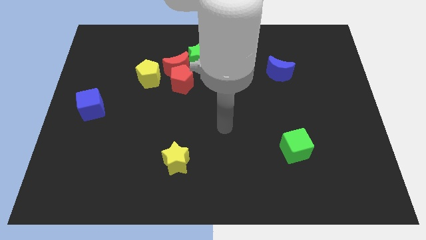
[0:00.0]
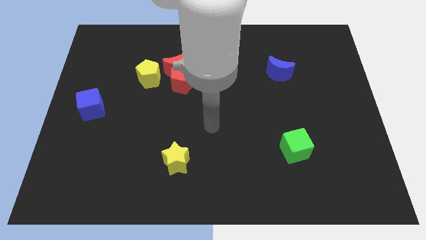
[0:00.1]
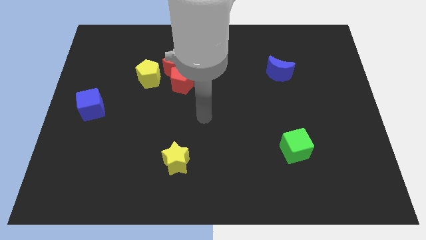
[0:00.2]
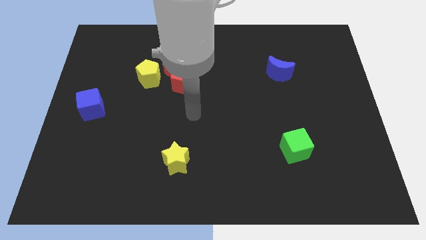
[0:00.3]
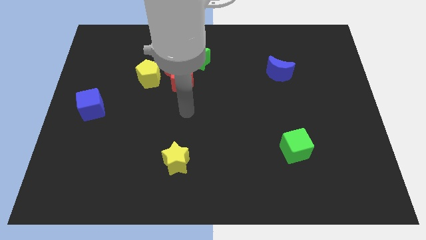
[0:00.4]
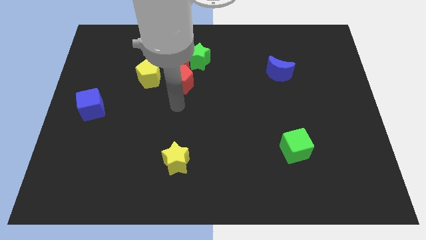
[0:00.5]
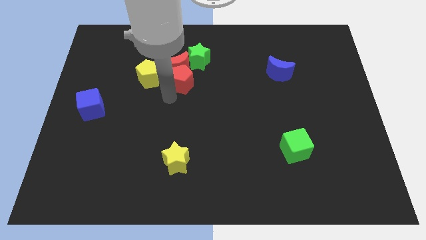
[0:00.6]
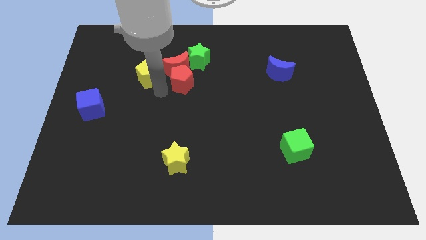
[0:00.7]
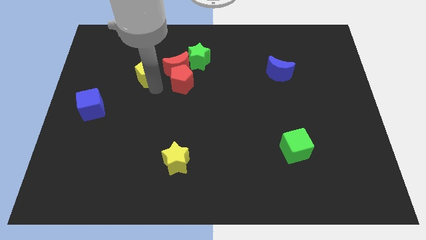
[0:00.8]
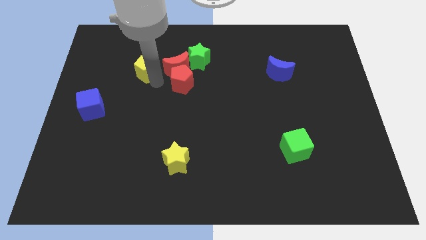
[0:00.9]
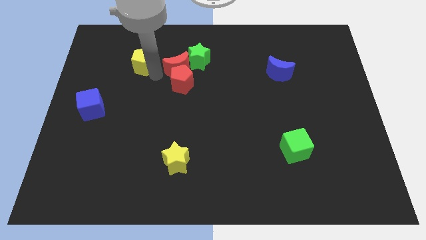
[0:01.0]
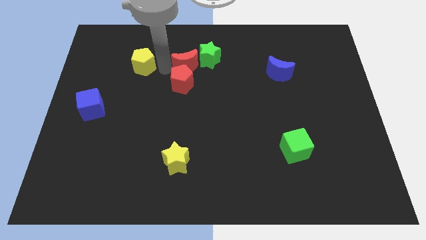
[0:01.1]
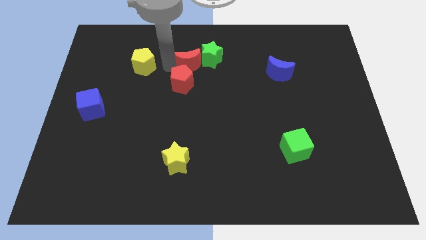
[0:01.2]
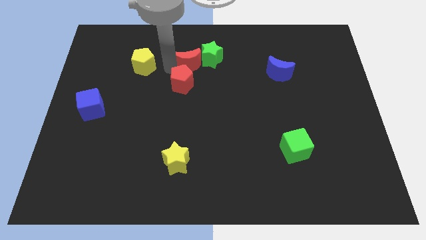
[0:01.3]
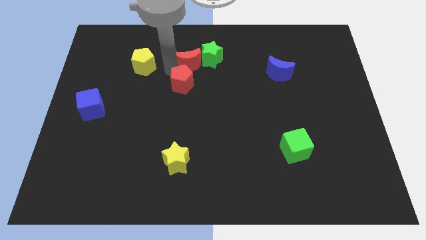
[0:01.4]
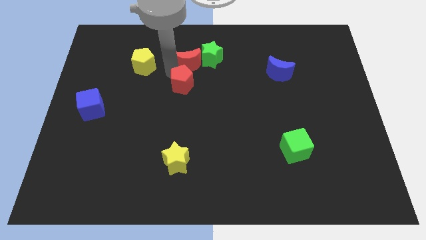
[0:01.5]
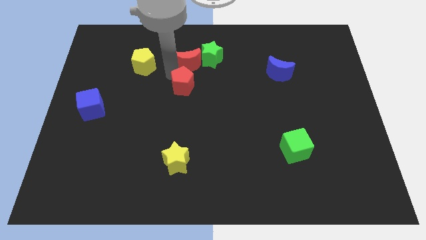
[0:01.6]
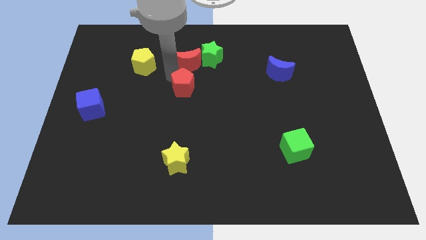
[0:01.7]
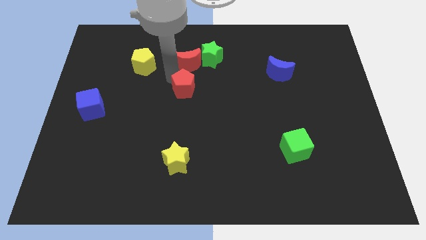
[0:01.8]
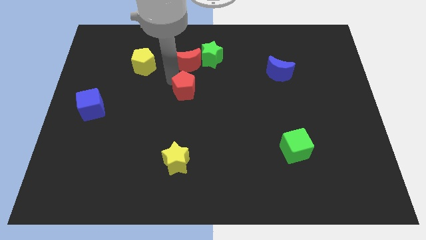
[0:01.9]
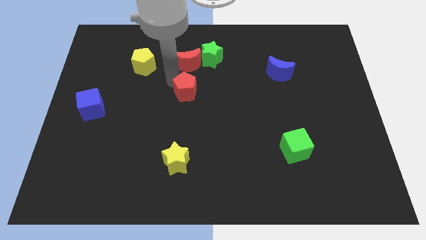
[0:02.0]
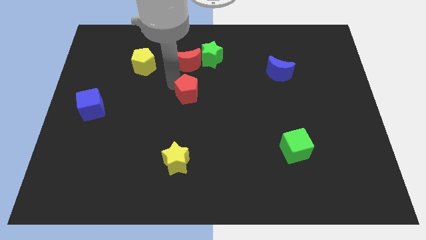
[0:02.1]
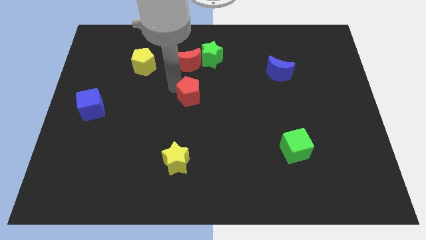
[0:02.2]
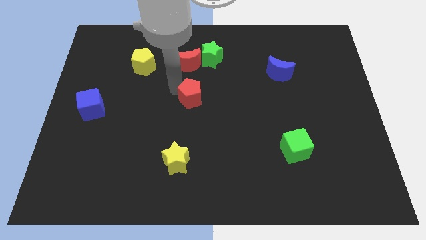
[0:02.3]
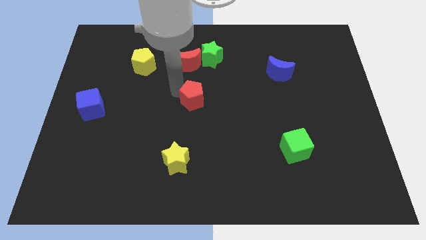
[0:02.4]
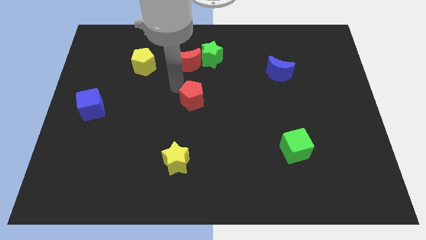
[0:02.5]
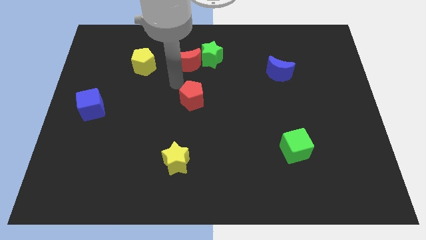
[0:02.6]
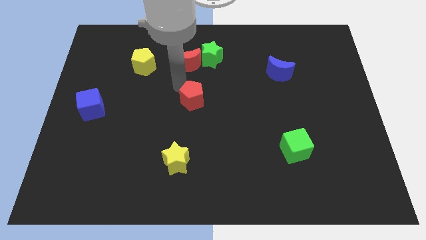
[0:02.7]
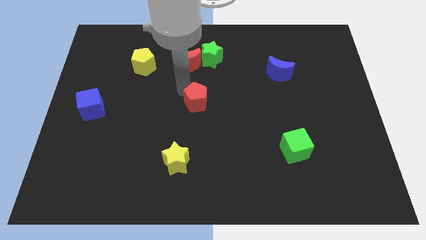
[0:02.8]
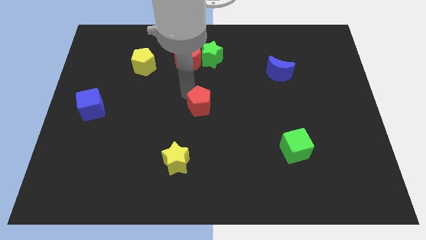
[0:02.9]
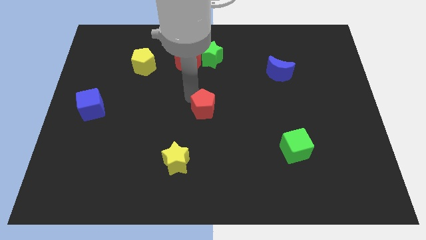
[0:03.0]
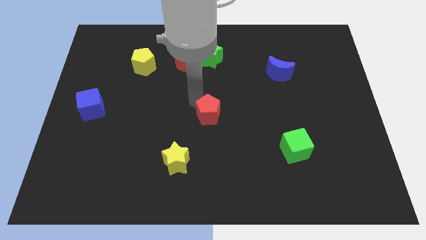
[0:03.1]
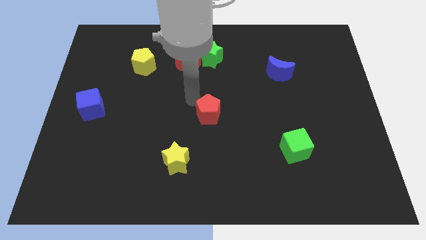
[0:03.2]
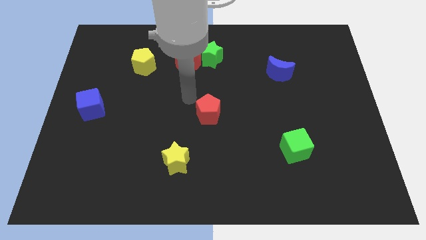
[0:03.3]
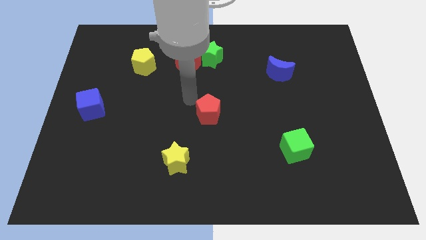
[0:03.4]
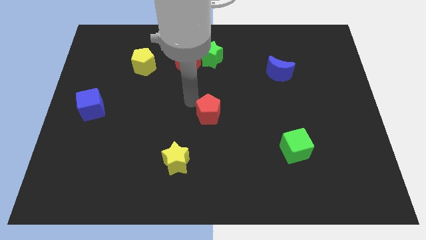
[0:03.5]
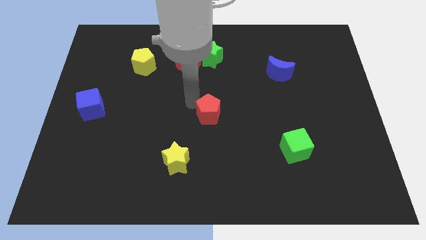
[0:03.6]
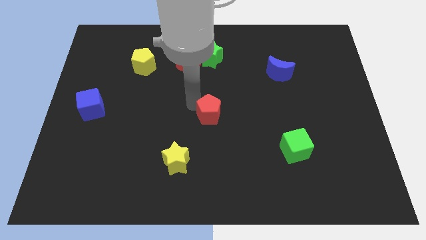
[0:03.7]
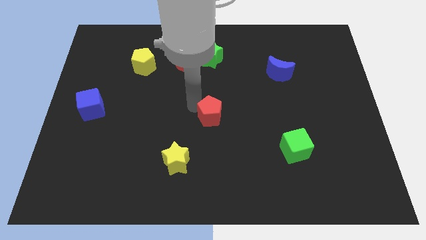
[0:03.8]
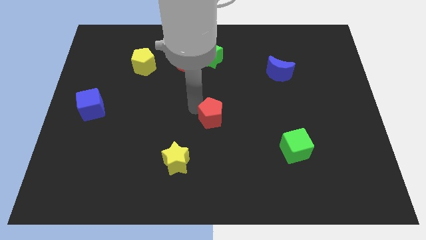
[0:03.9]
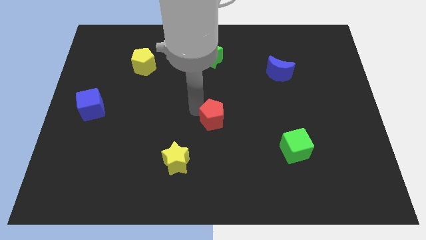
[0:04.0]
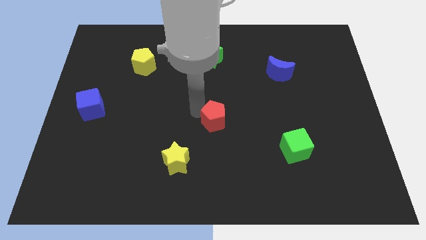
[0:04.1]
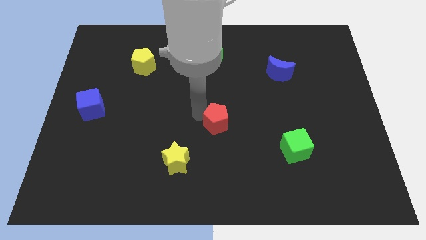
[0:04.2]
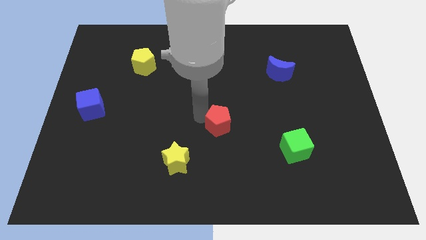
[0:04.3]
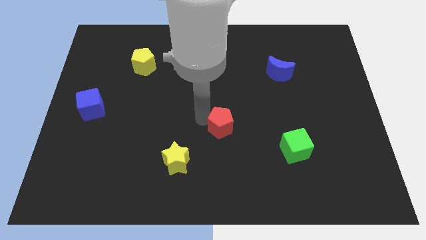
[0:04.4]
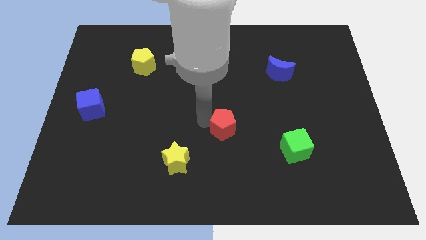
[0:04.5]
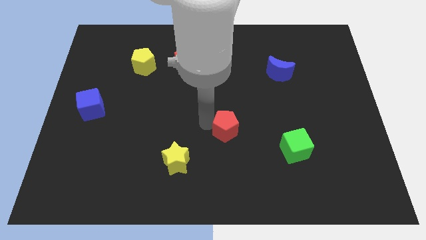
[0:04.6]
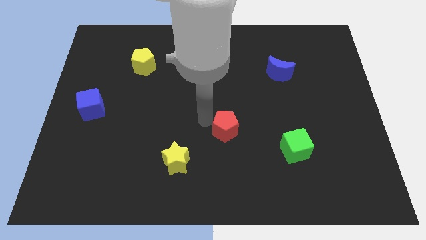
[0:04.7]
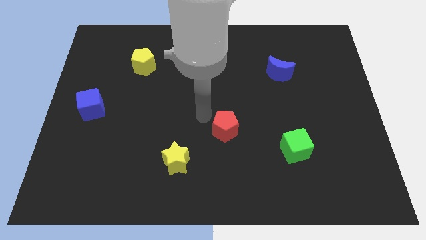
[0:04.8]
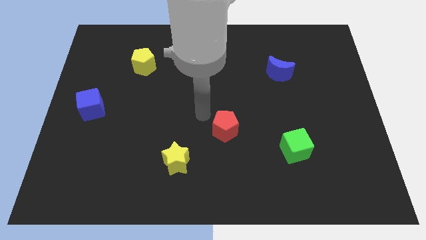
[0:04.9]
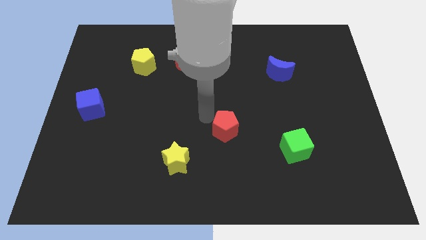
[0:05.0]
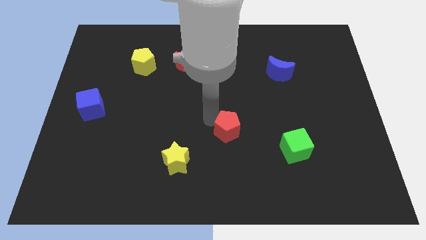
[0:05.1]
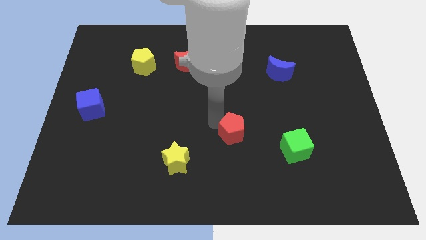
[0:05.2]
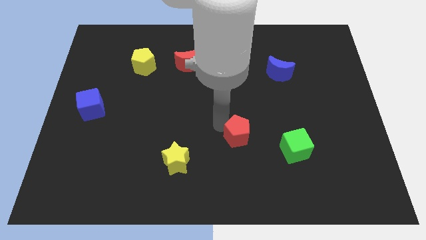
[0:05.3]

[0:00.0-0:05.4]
push the red pentagon diagonally down and right

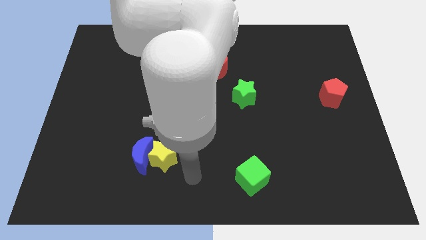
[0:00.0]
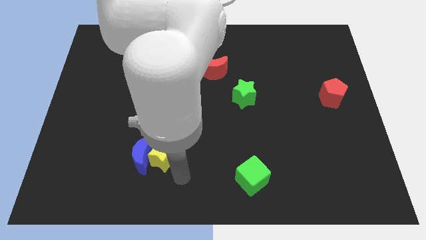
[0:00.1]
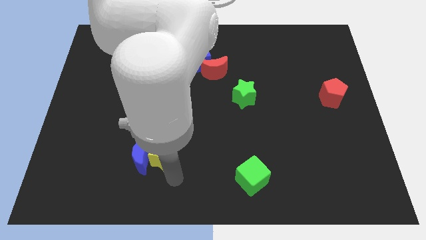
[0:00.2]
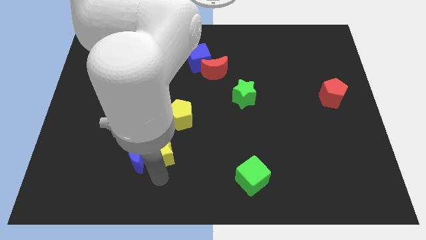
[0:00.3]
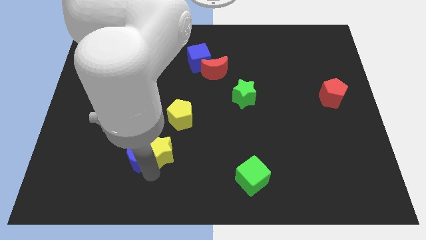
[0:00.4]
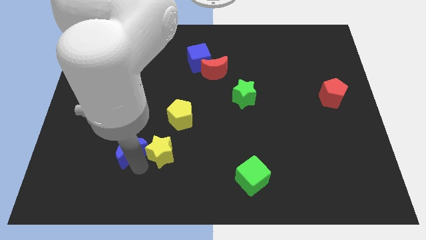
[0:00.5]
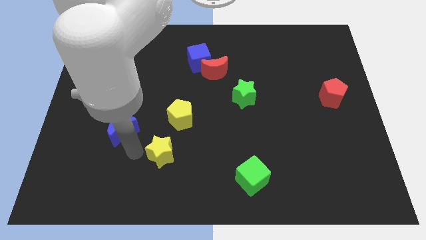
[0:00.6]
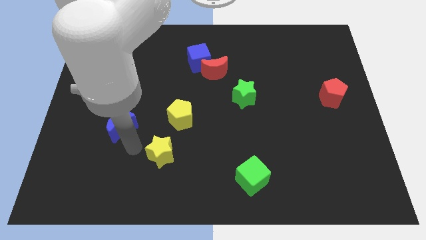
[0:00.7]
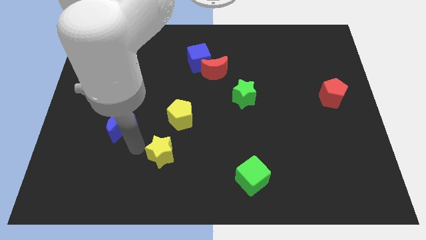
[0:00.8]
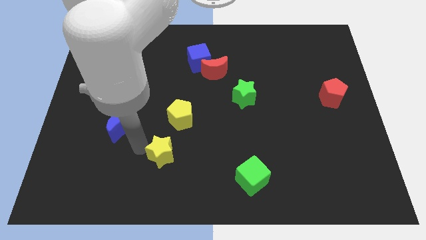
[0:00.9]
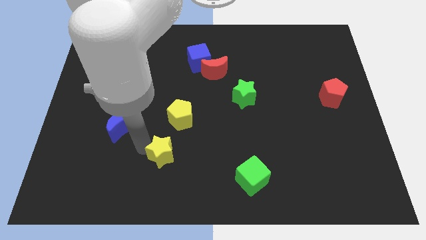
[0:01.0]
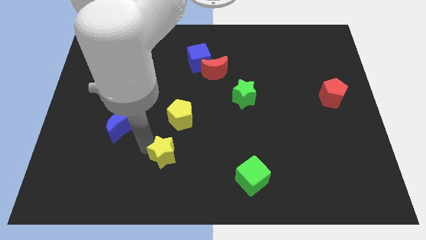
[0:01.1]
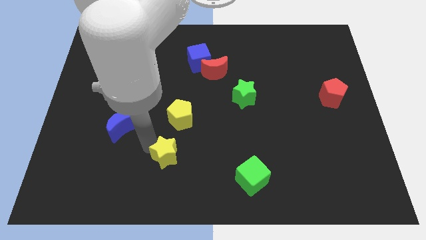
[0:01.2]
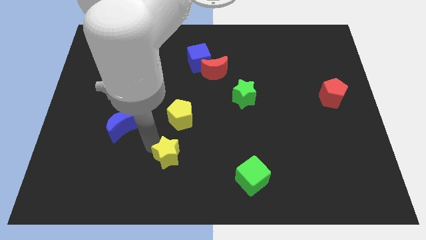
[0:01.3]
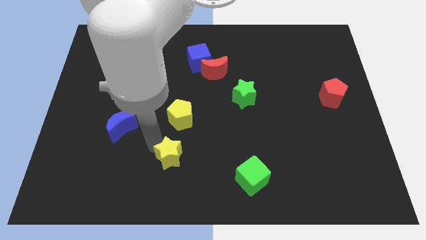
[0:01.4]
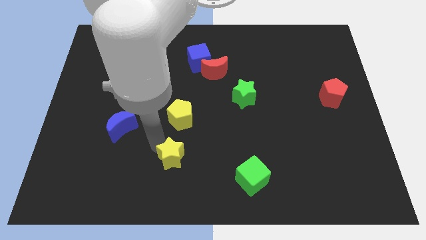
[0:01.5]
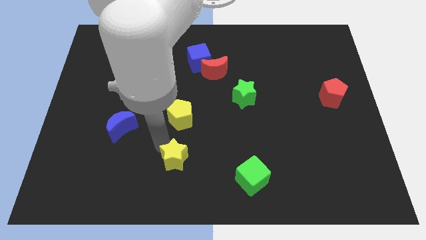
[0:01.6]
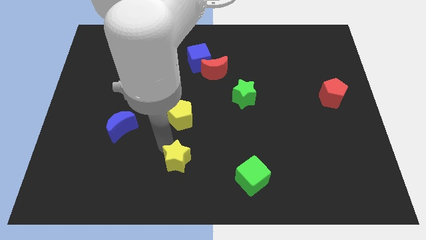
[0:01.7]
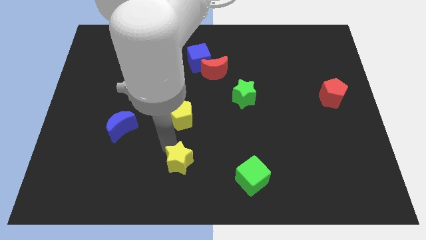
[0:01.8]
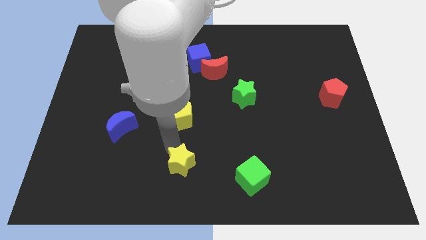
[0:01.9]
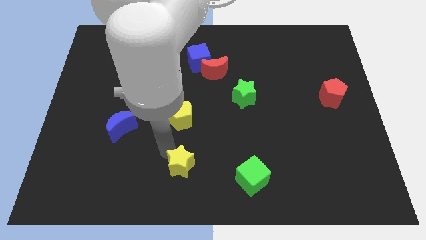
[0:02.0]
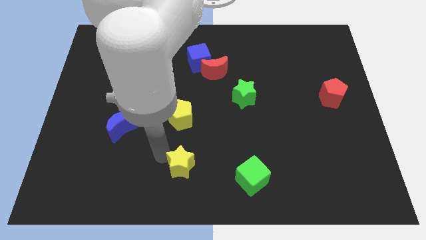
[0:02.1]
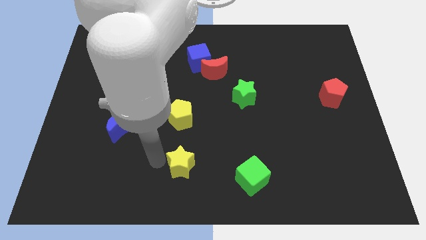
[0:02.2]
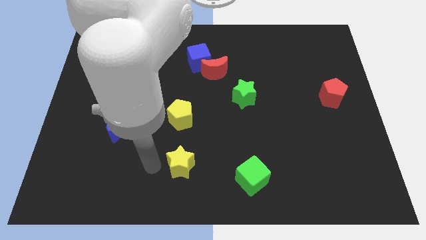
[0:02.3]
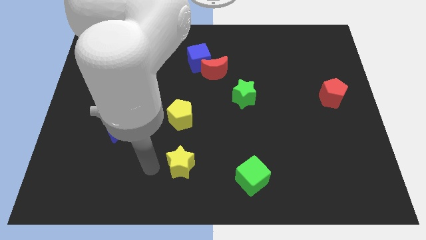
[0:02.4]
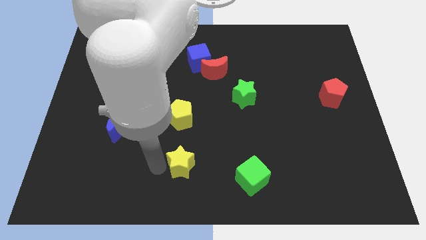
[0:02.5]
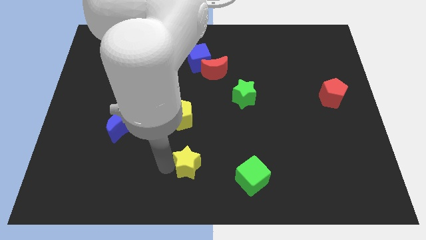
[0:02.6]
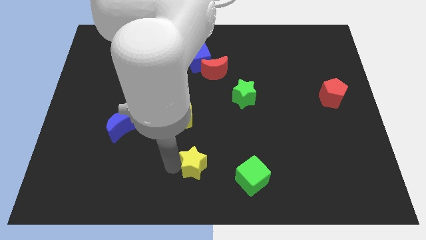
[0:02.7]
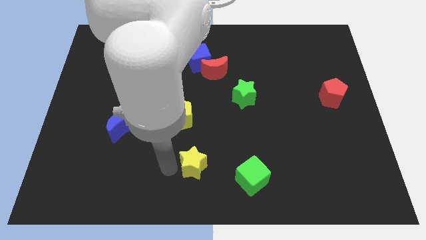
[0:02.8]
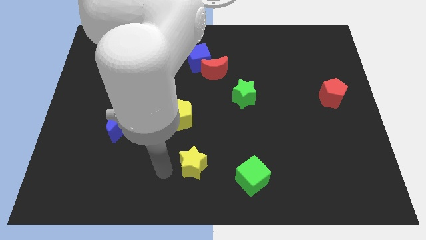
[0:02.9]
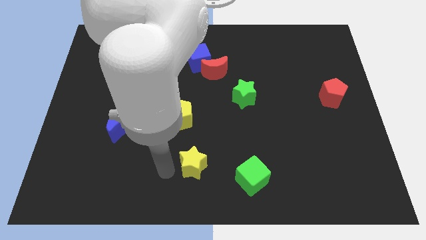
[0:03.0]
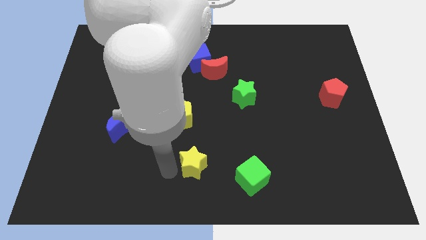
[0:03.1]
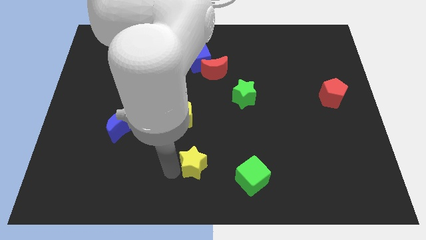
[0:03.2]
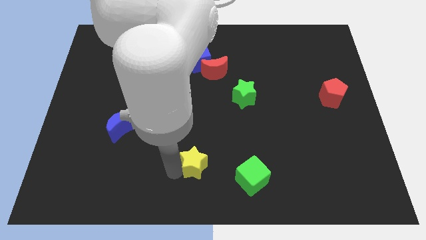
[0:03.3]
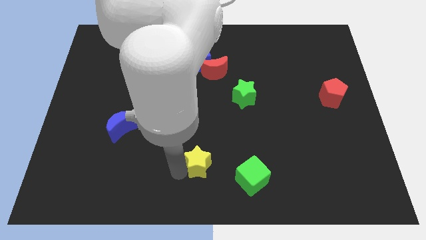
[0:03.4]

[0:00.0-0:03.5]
slide the yellow star a little to the right
